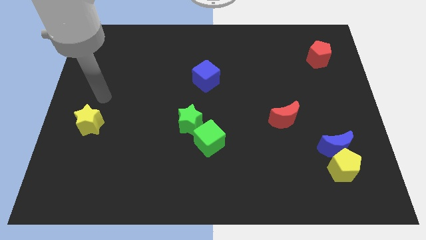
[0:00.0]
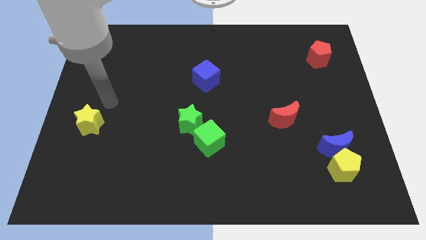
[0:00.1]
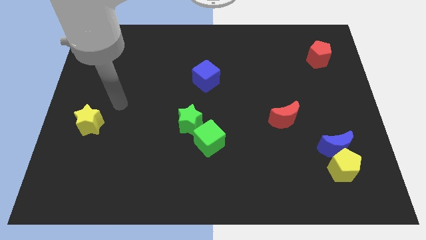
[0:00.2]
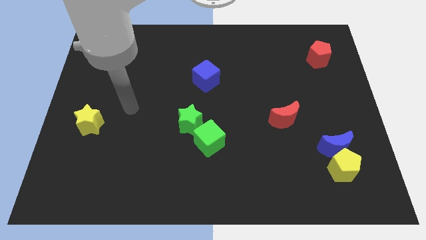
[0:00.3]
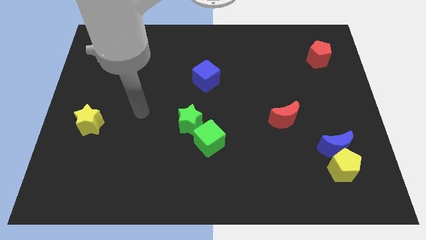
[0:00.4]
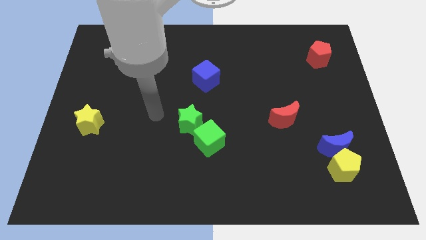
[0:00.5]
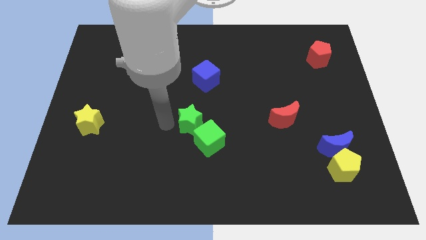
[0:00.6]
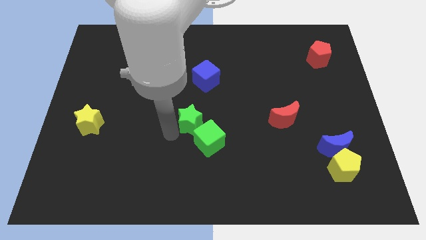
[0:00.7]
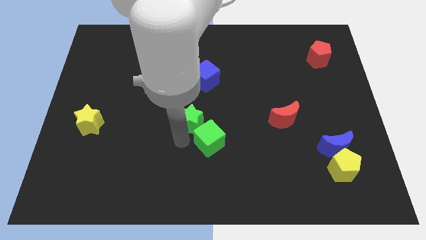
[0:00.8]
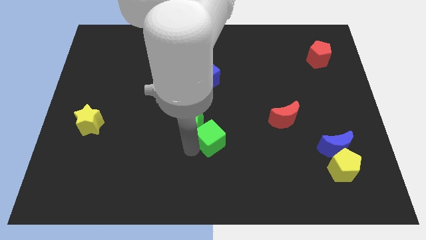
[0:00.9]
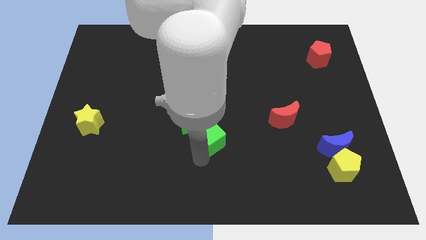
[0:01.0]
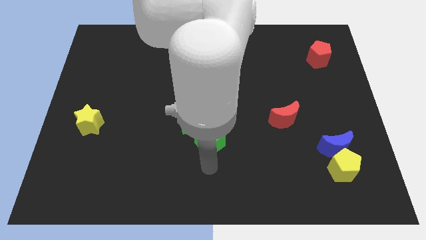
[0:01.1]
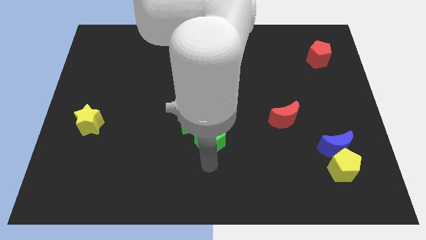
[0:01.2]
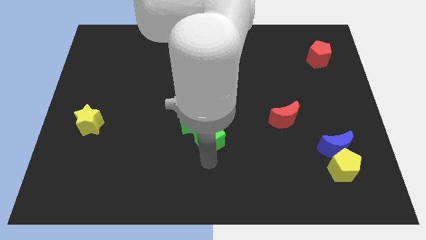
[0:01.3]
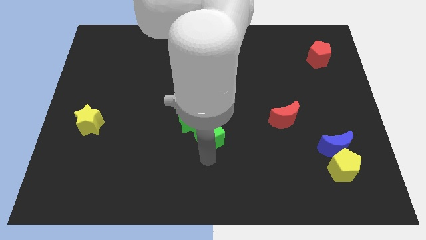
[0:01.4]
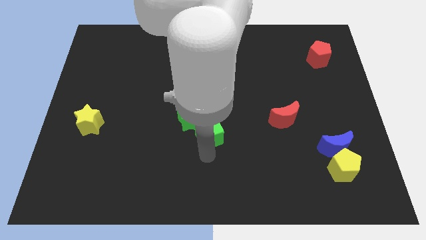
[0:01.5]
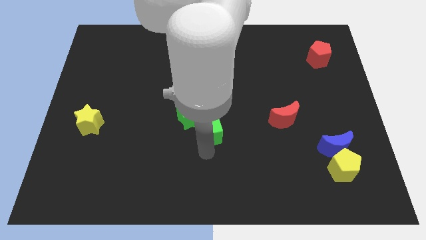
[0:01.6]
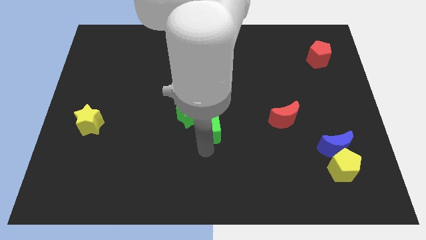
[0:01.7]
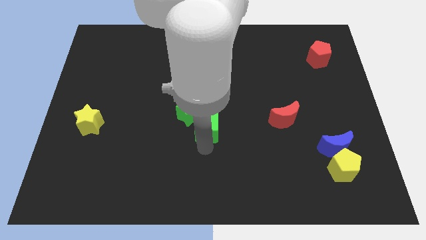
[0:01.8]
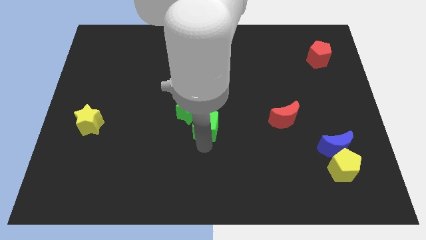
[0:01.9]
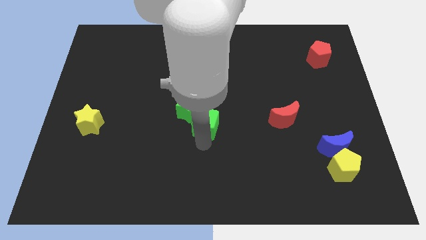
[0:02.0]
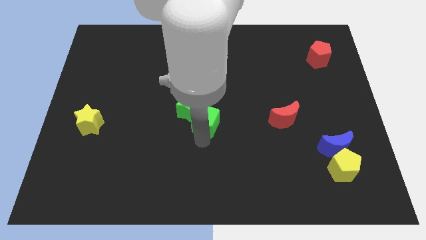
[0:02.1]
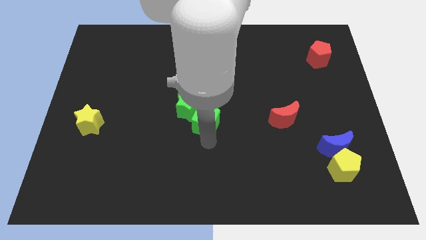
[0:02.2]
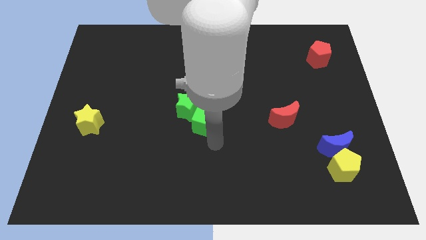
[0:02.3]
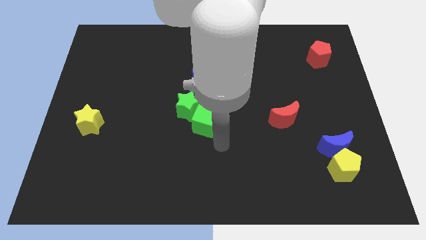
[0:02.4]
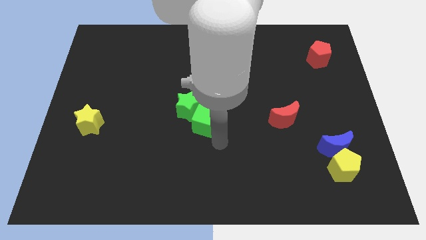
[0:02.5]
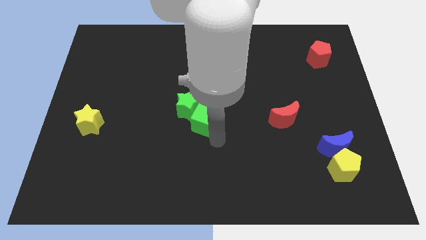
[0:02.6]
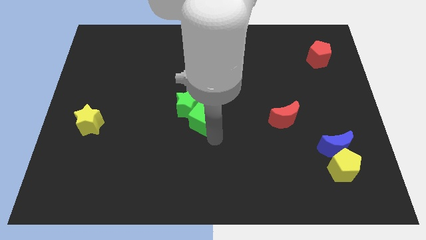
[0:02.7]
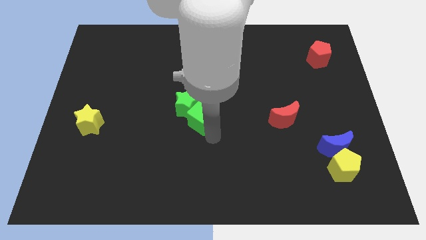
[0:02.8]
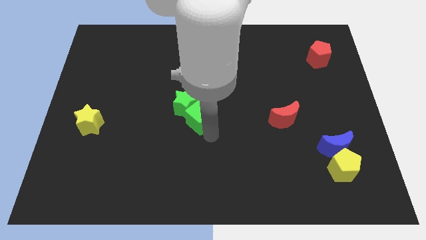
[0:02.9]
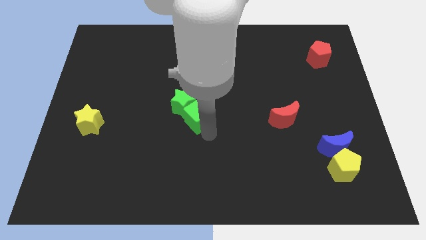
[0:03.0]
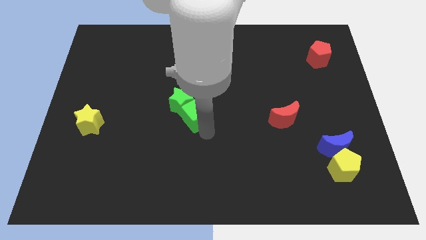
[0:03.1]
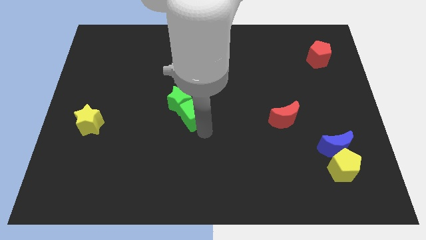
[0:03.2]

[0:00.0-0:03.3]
slightly slide the green cube up and to the left

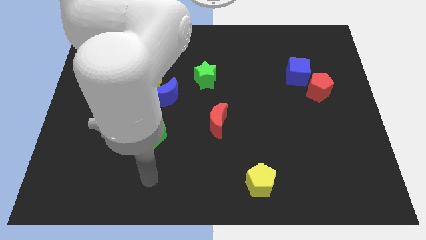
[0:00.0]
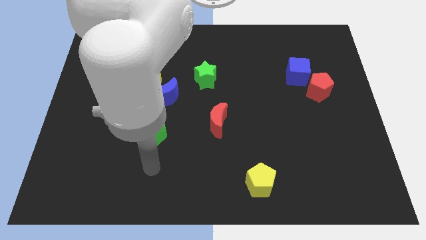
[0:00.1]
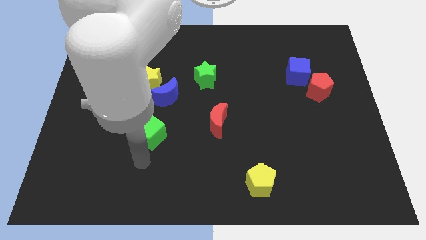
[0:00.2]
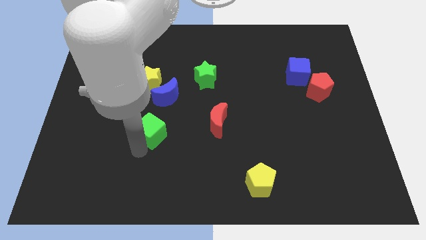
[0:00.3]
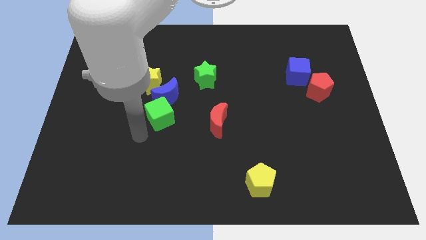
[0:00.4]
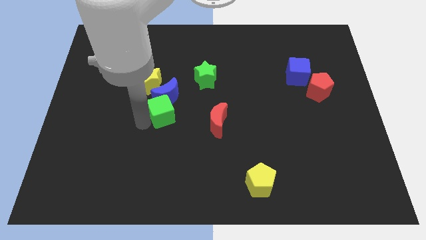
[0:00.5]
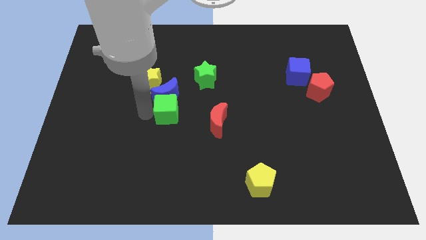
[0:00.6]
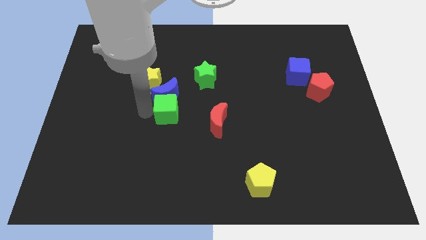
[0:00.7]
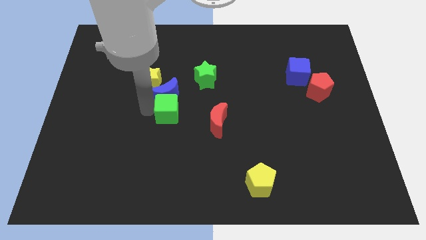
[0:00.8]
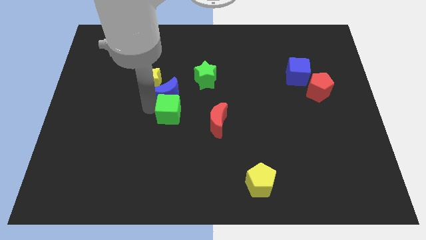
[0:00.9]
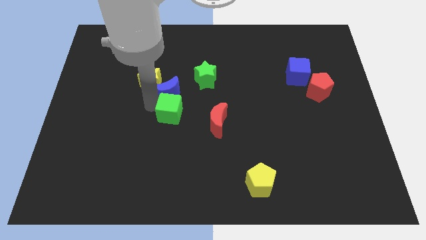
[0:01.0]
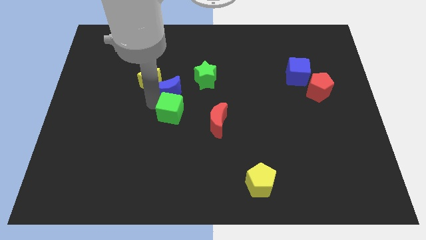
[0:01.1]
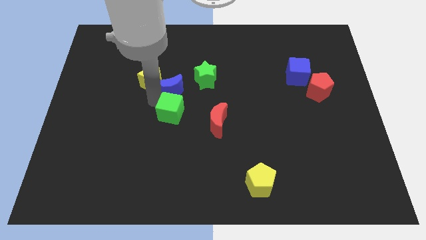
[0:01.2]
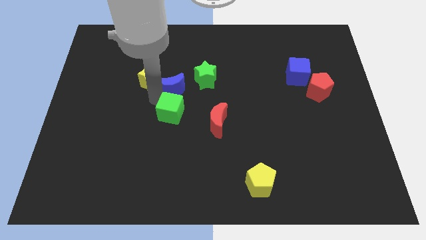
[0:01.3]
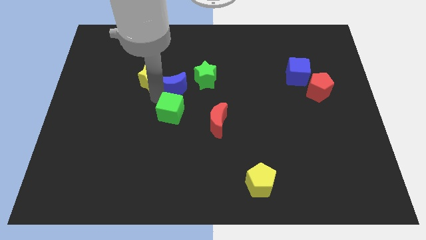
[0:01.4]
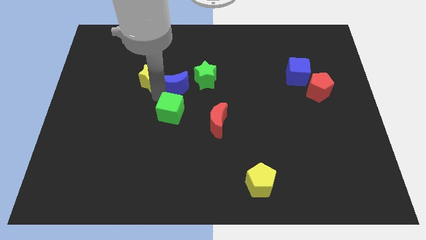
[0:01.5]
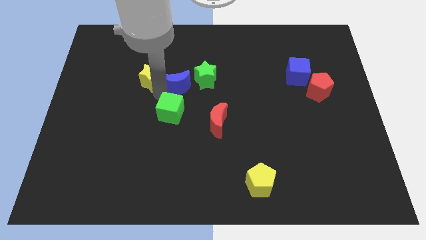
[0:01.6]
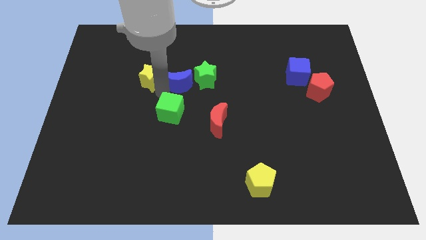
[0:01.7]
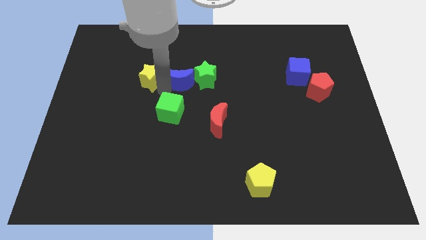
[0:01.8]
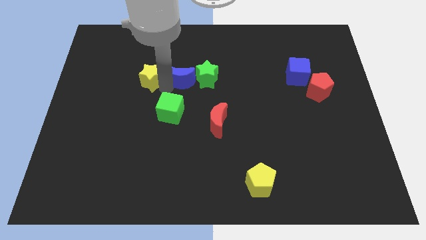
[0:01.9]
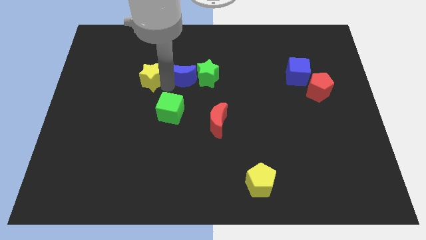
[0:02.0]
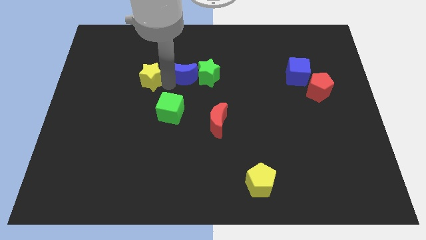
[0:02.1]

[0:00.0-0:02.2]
slightly move the blue moon upwards and then to the right

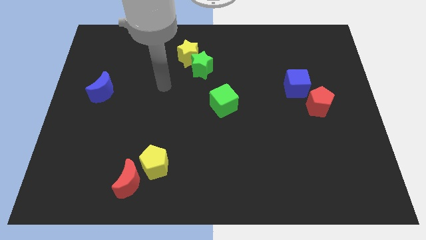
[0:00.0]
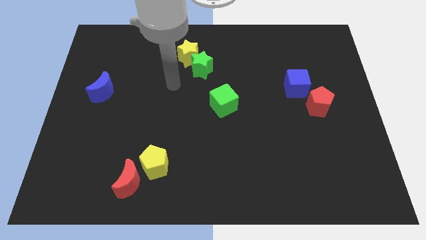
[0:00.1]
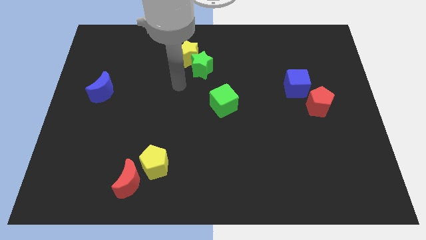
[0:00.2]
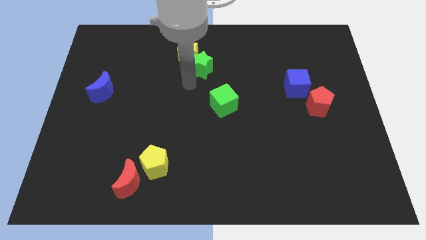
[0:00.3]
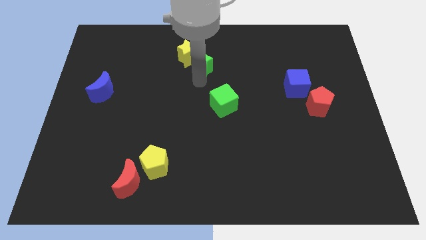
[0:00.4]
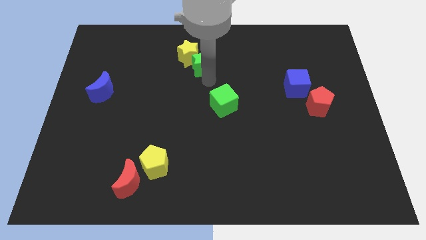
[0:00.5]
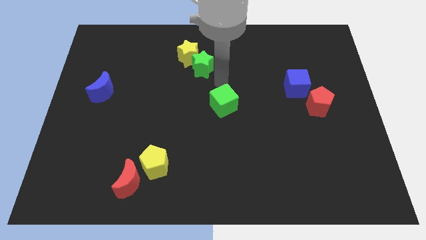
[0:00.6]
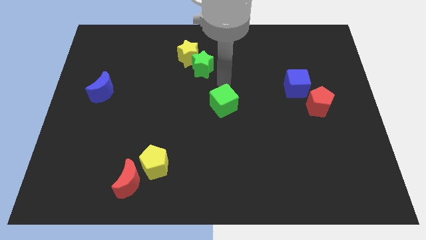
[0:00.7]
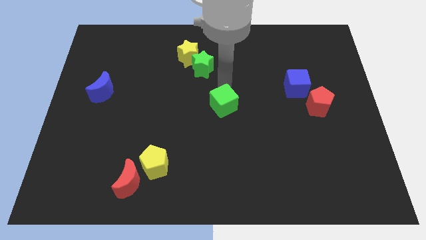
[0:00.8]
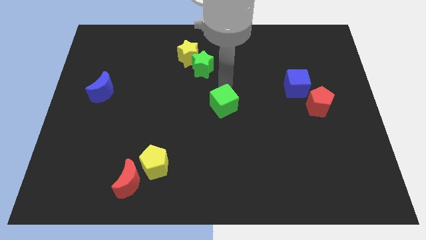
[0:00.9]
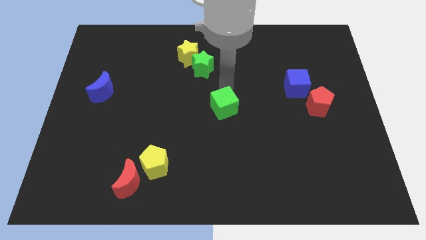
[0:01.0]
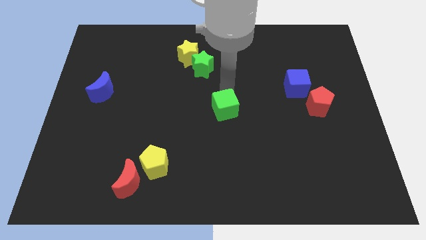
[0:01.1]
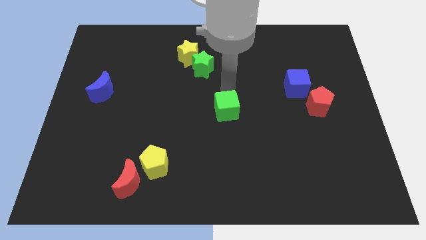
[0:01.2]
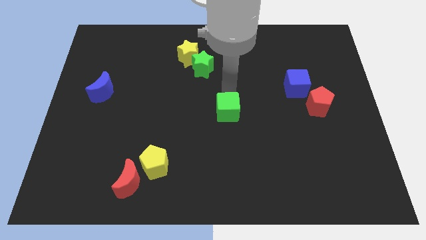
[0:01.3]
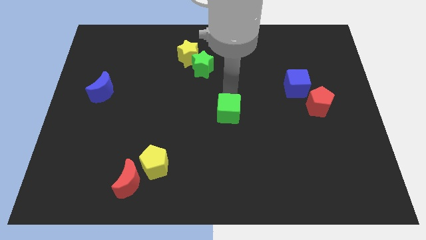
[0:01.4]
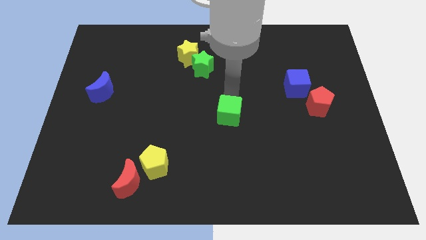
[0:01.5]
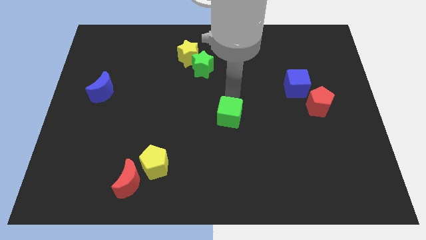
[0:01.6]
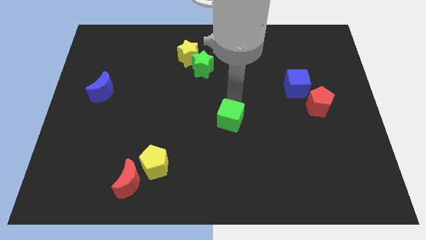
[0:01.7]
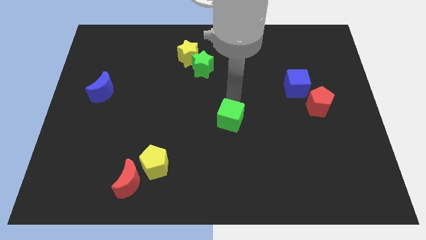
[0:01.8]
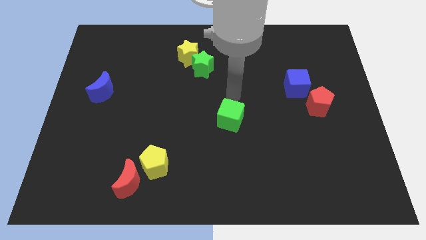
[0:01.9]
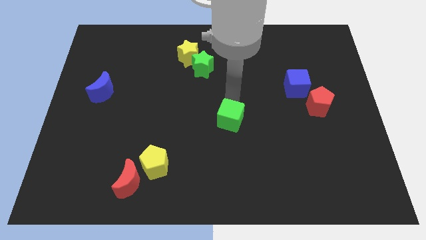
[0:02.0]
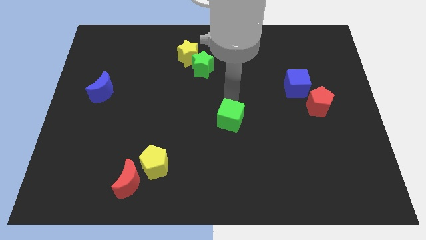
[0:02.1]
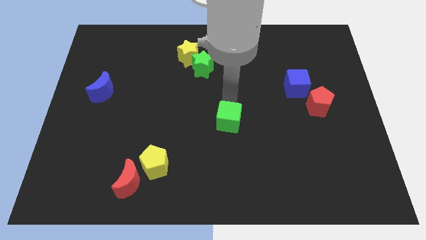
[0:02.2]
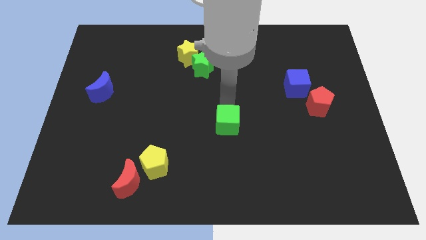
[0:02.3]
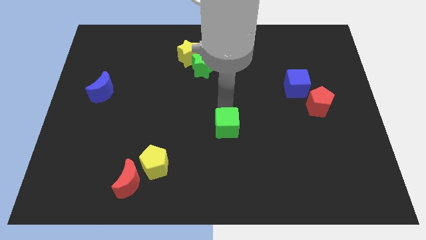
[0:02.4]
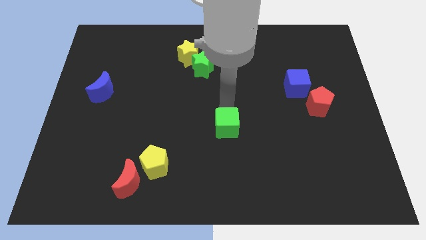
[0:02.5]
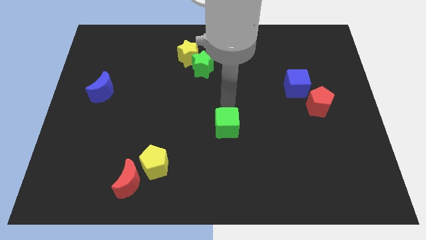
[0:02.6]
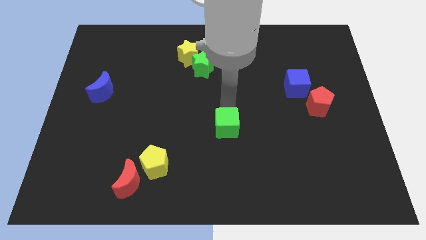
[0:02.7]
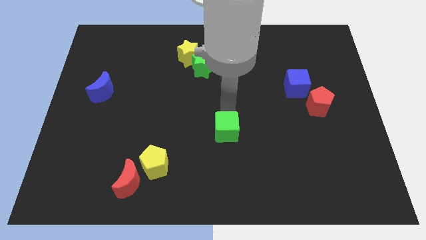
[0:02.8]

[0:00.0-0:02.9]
slightly move the green cube down

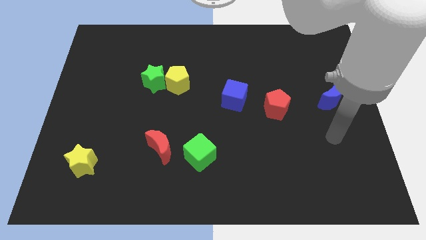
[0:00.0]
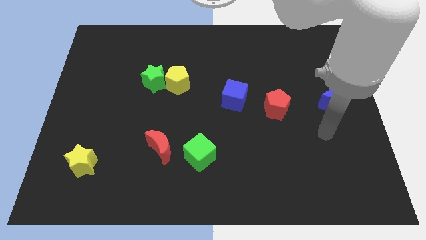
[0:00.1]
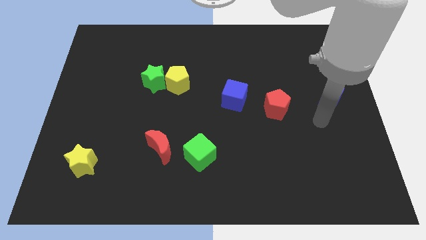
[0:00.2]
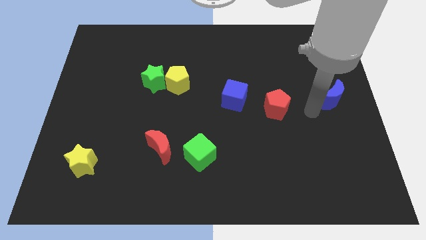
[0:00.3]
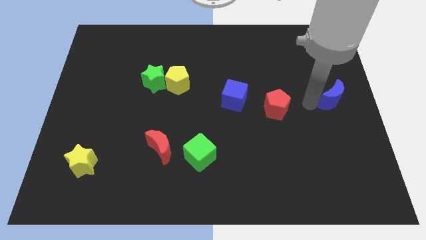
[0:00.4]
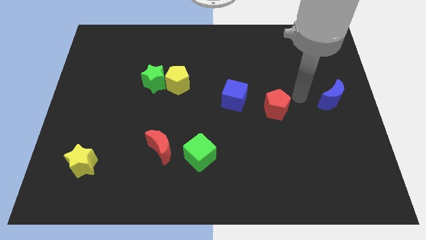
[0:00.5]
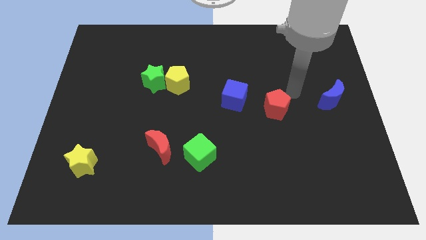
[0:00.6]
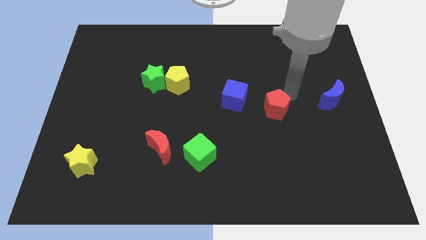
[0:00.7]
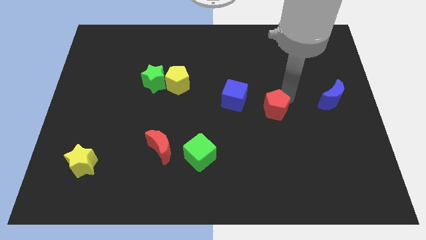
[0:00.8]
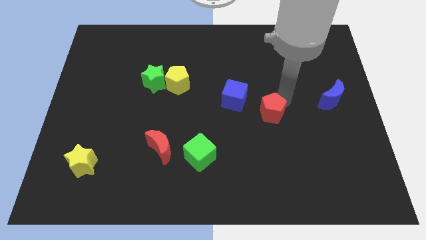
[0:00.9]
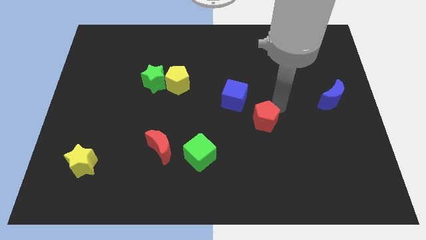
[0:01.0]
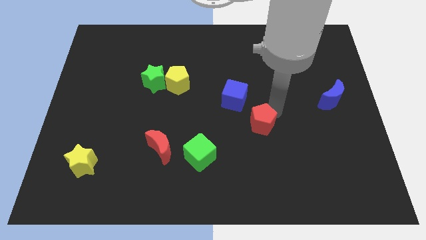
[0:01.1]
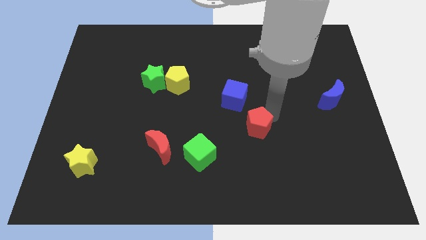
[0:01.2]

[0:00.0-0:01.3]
slide the red pentagon down and to the left slightly
